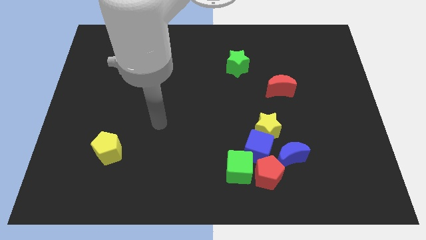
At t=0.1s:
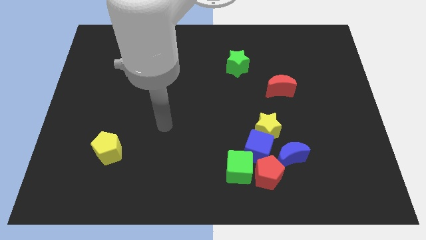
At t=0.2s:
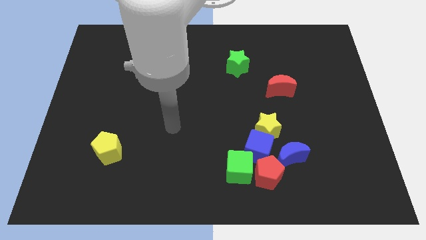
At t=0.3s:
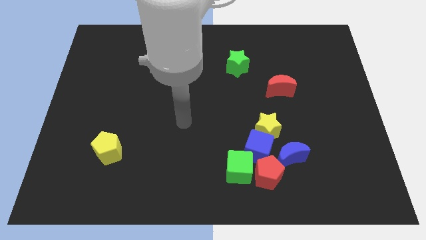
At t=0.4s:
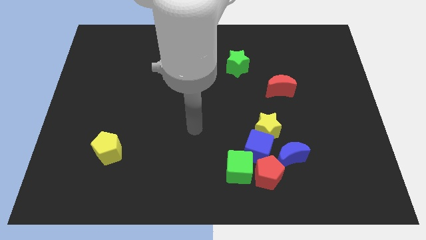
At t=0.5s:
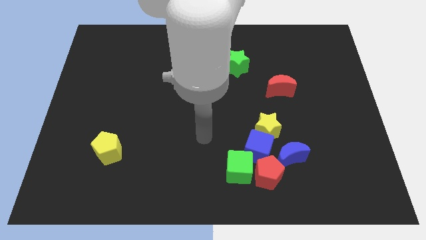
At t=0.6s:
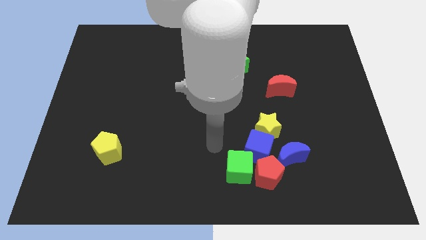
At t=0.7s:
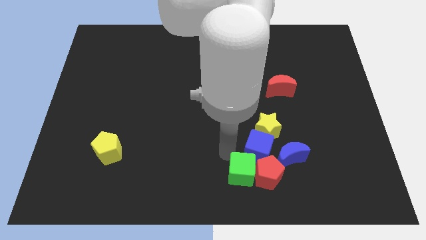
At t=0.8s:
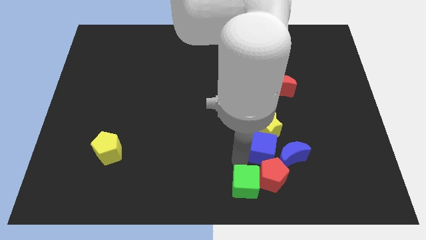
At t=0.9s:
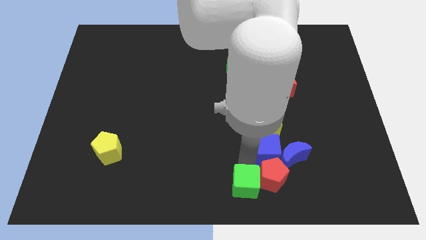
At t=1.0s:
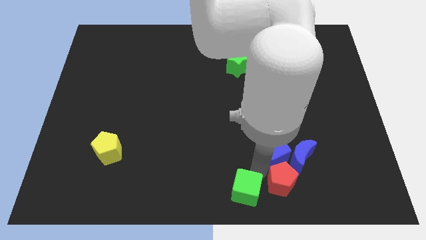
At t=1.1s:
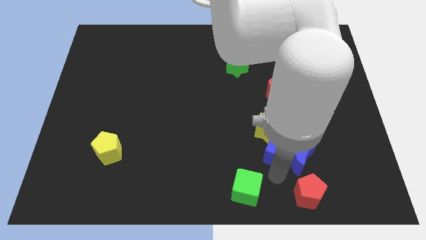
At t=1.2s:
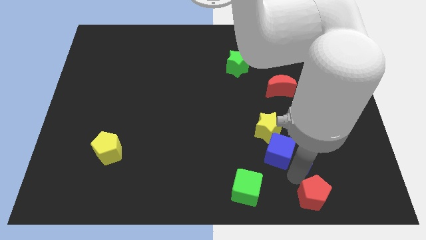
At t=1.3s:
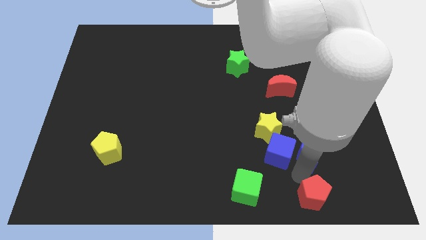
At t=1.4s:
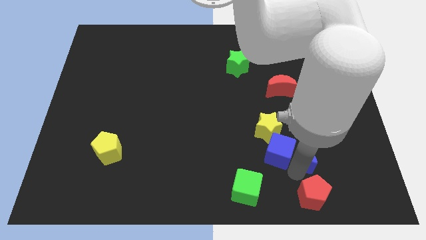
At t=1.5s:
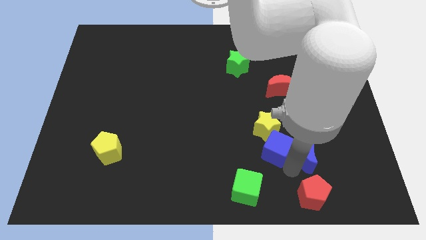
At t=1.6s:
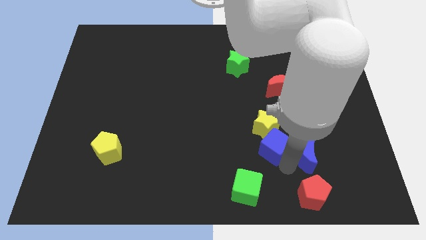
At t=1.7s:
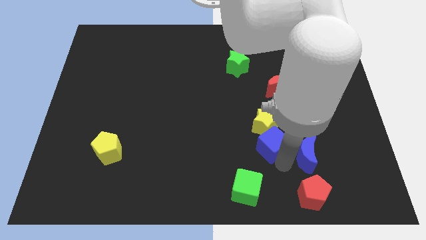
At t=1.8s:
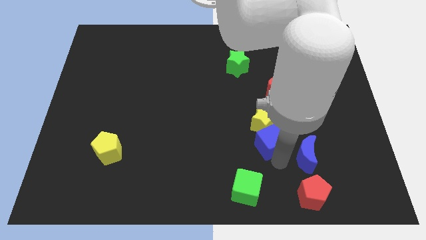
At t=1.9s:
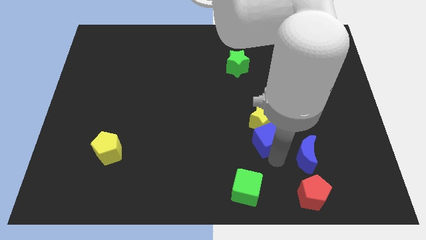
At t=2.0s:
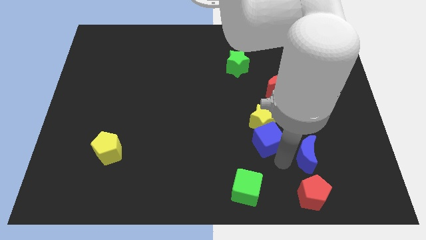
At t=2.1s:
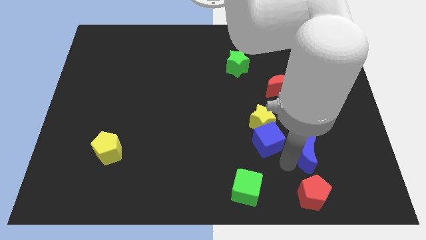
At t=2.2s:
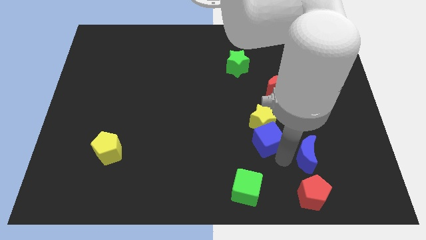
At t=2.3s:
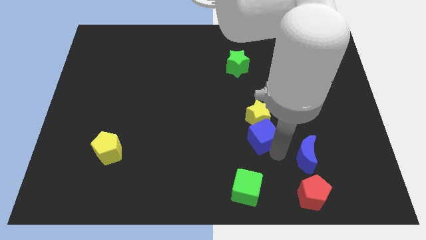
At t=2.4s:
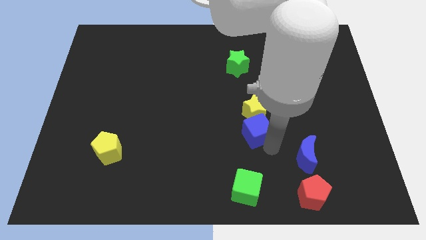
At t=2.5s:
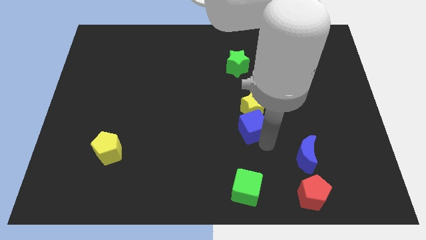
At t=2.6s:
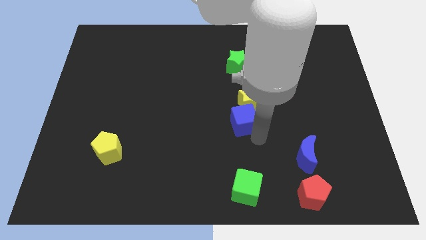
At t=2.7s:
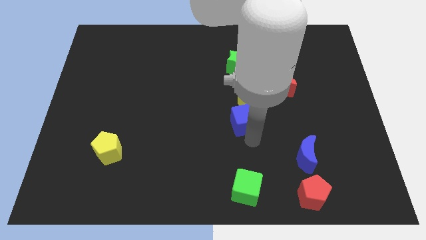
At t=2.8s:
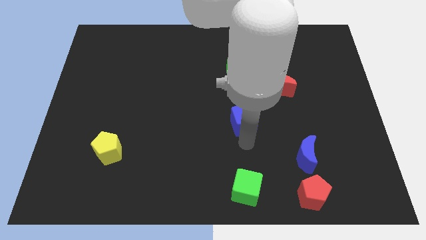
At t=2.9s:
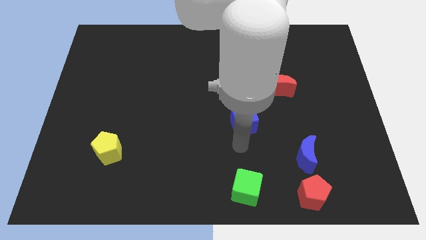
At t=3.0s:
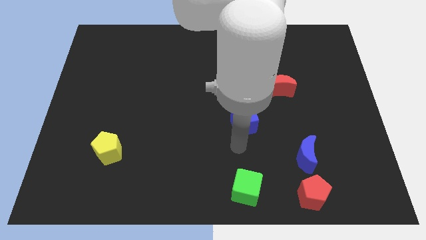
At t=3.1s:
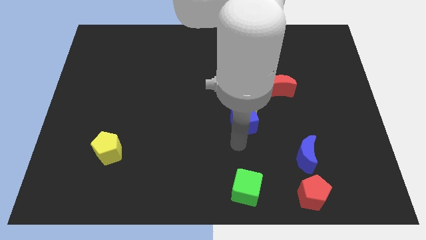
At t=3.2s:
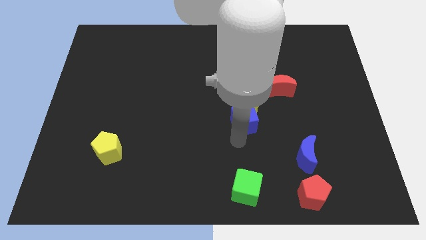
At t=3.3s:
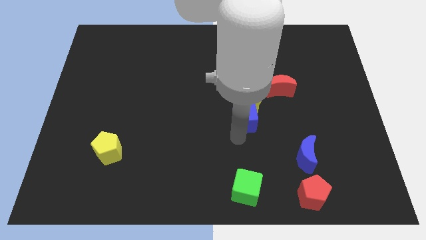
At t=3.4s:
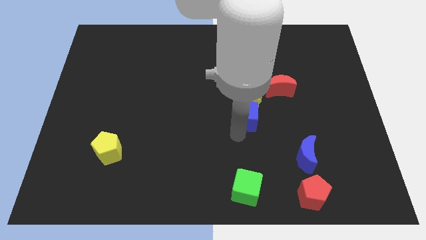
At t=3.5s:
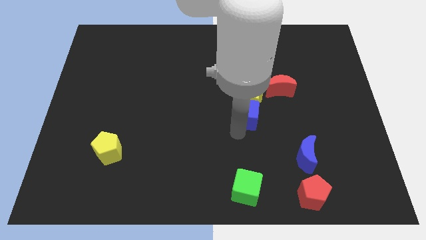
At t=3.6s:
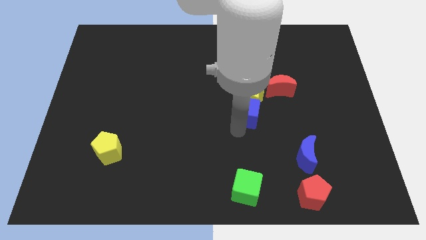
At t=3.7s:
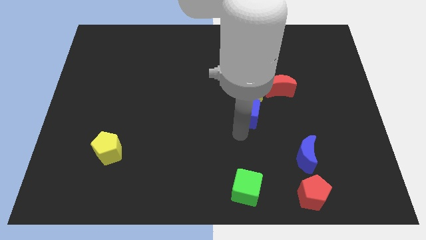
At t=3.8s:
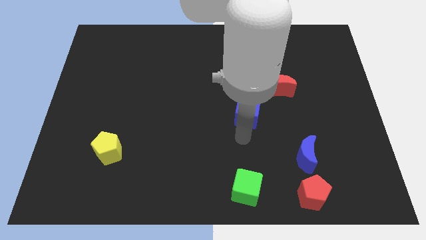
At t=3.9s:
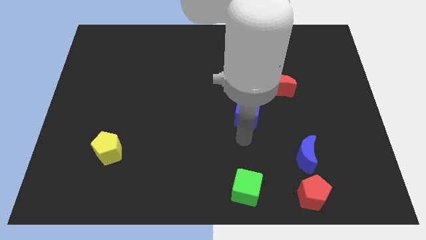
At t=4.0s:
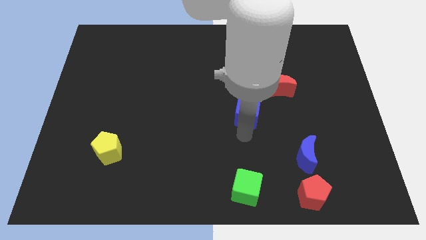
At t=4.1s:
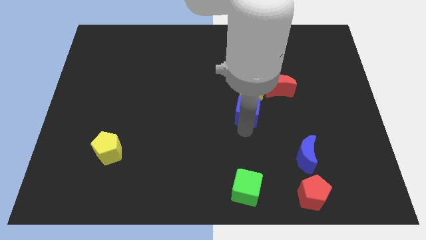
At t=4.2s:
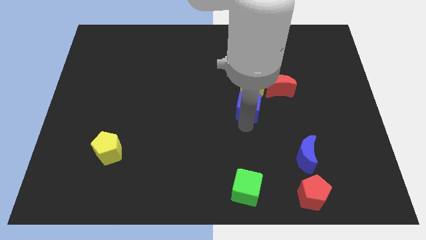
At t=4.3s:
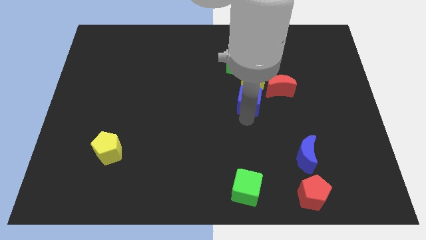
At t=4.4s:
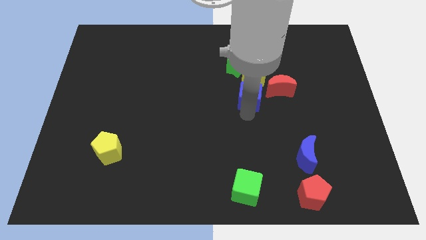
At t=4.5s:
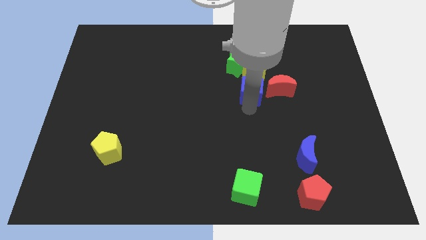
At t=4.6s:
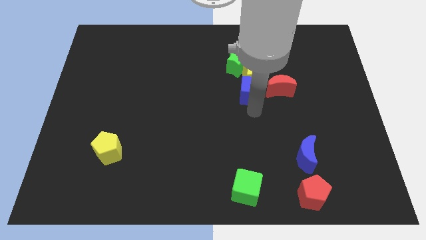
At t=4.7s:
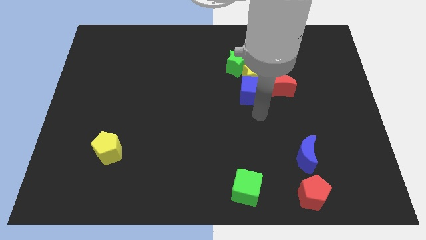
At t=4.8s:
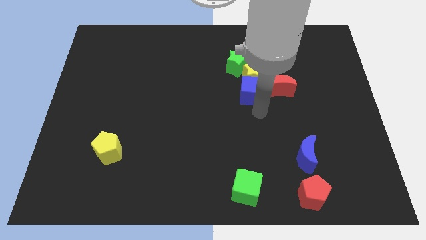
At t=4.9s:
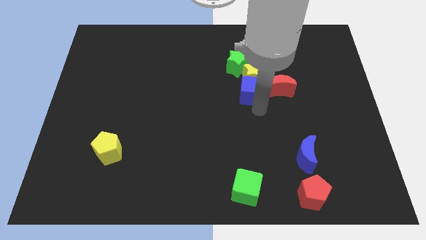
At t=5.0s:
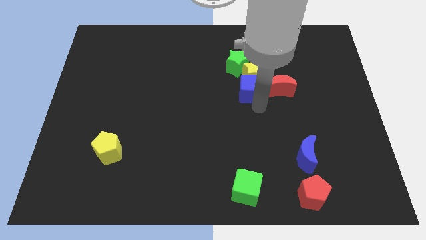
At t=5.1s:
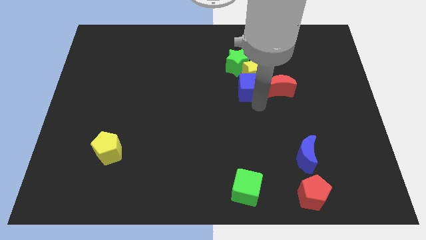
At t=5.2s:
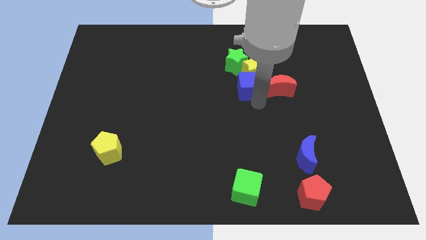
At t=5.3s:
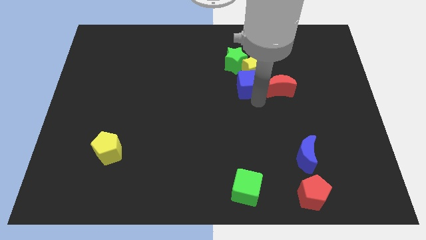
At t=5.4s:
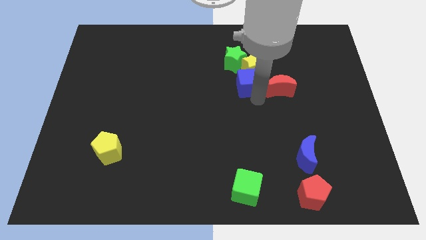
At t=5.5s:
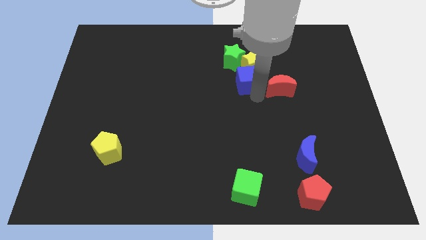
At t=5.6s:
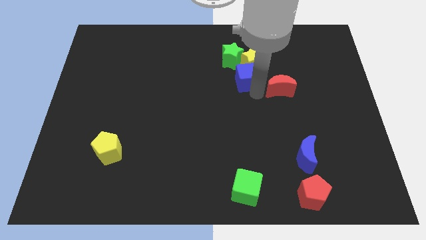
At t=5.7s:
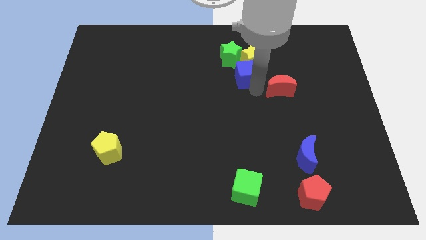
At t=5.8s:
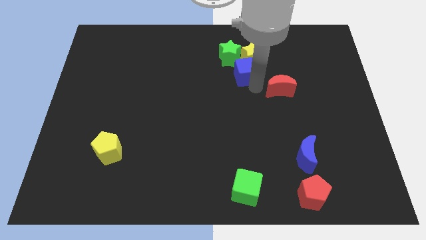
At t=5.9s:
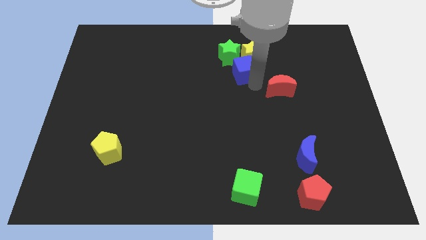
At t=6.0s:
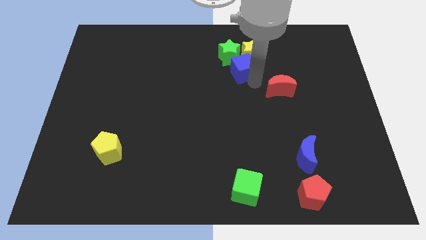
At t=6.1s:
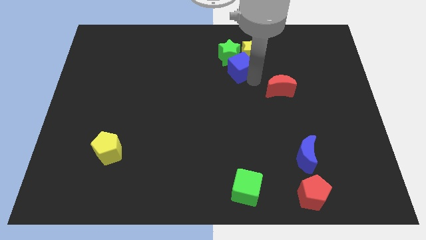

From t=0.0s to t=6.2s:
slide the blue cube next to the green star

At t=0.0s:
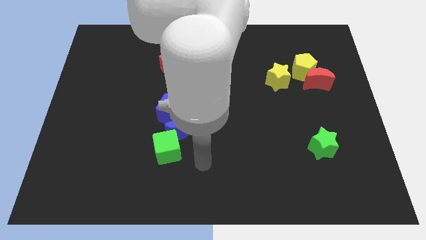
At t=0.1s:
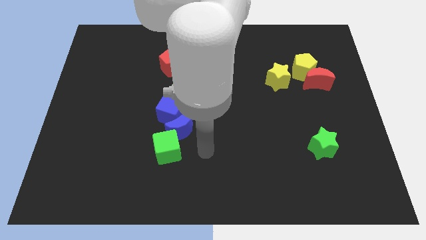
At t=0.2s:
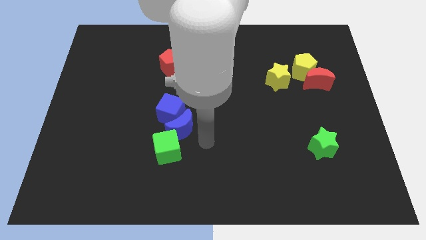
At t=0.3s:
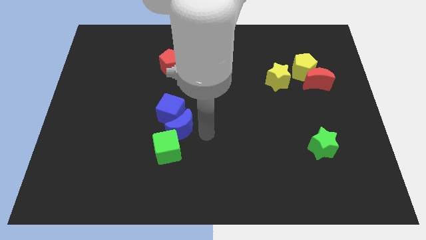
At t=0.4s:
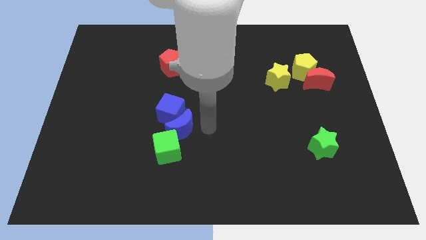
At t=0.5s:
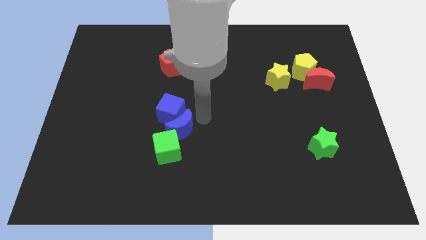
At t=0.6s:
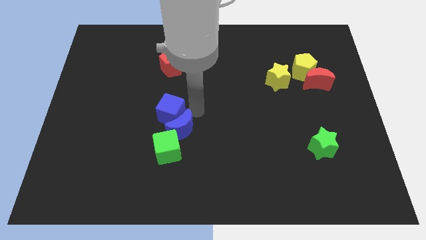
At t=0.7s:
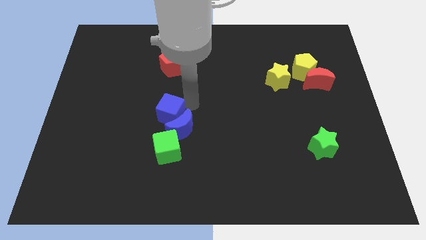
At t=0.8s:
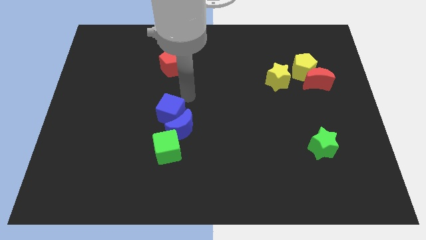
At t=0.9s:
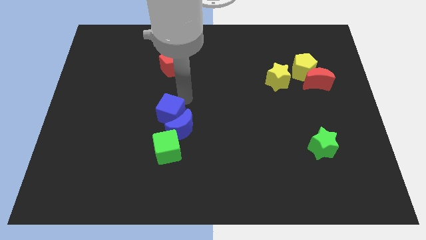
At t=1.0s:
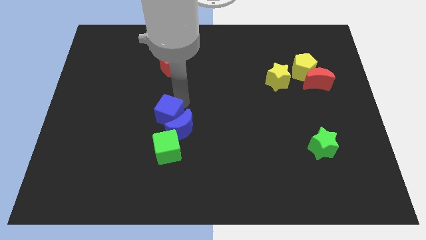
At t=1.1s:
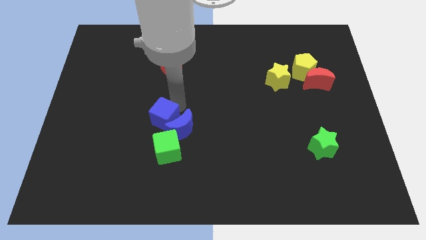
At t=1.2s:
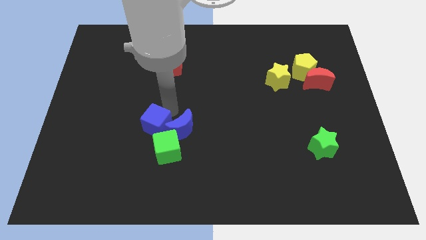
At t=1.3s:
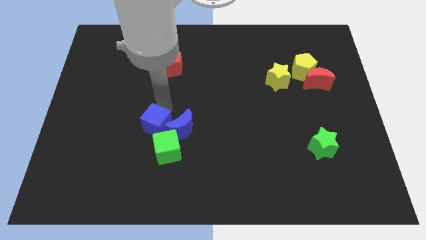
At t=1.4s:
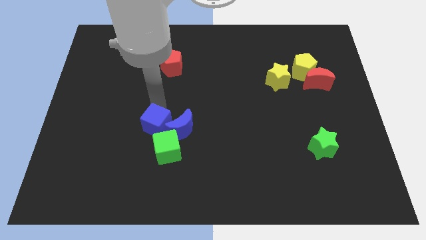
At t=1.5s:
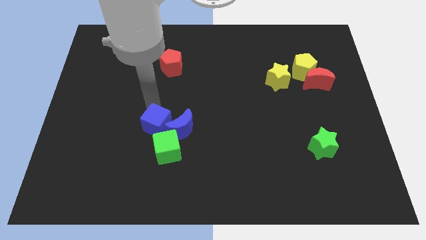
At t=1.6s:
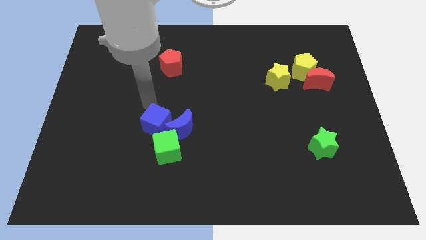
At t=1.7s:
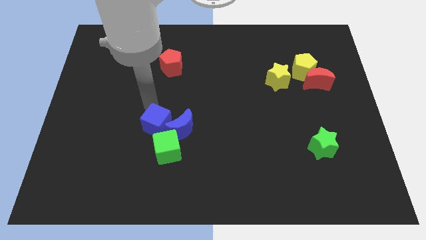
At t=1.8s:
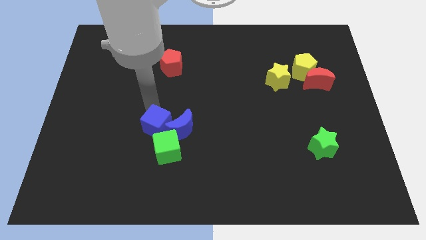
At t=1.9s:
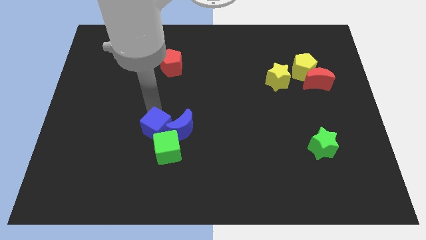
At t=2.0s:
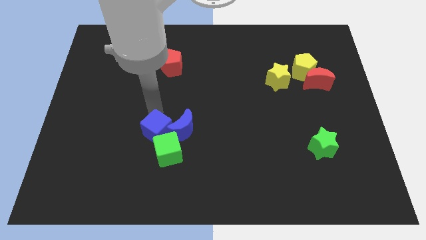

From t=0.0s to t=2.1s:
slide the blue cube next to the green cube
